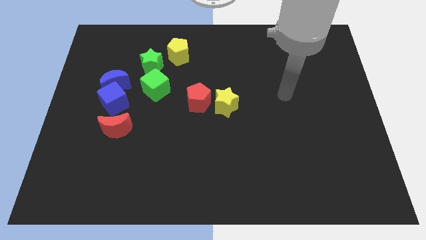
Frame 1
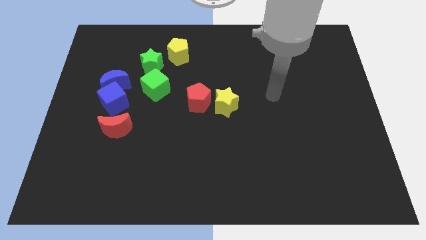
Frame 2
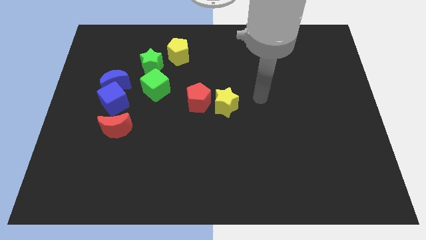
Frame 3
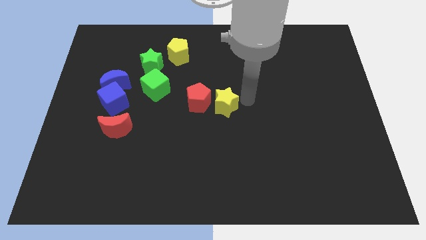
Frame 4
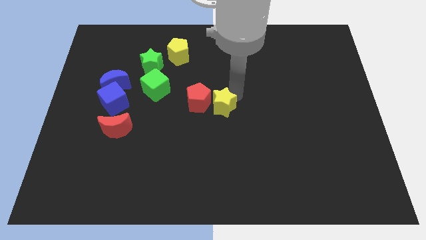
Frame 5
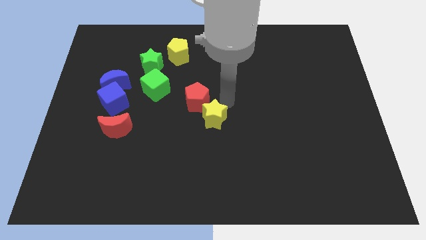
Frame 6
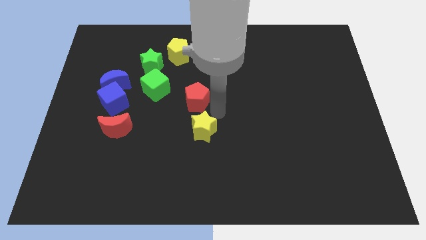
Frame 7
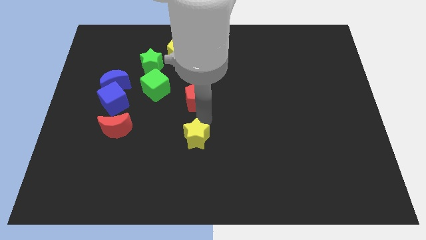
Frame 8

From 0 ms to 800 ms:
separate the red pentagon from the yellow star

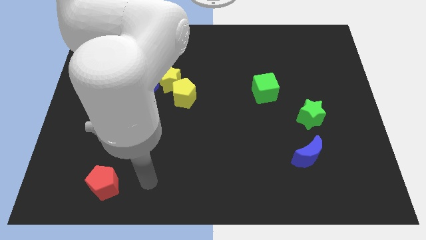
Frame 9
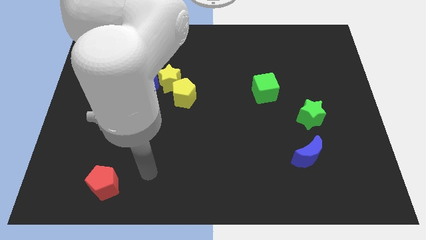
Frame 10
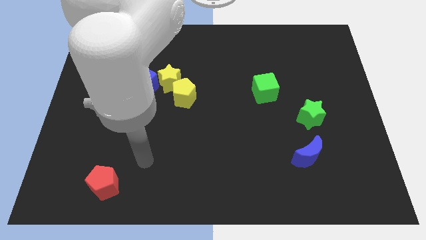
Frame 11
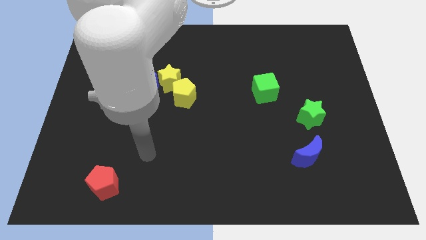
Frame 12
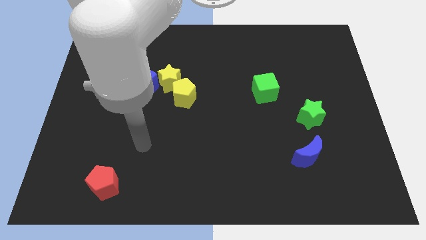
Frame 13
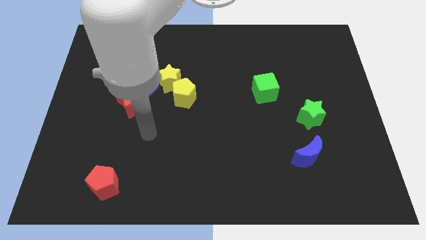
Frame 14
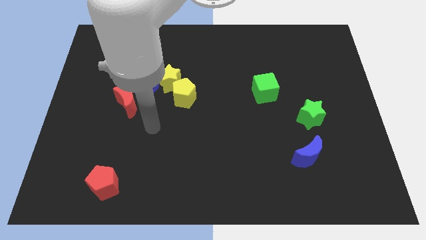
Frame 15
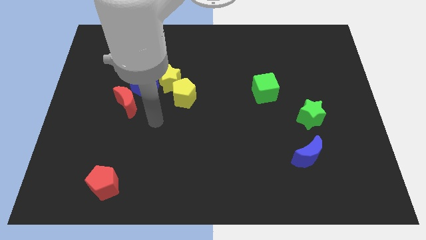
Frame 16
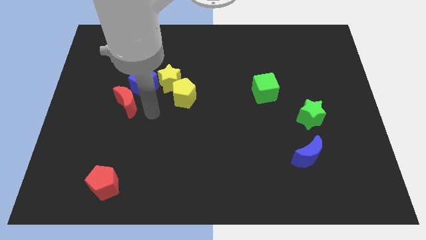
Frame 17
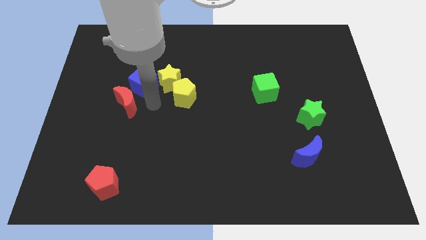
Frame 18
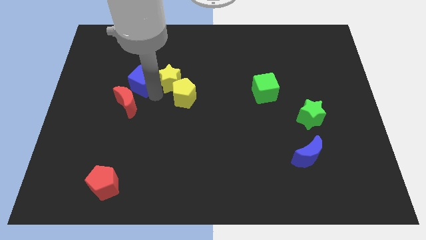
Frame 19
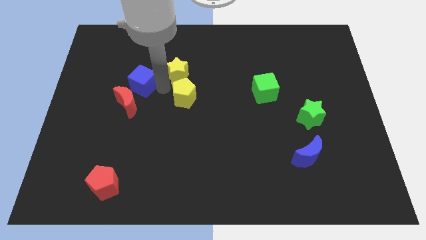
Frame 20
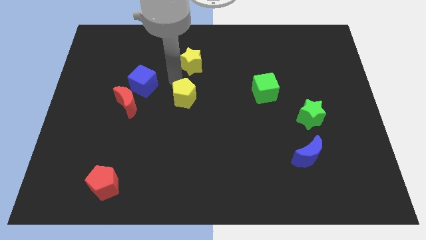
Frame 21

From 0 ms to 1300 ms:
move the yellow pentagon away from the yellow star

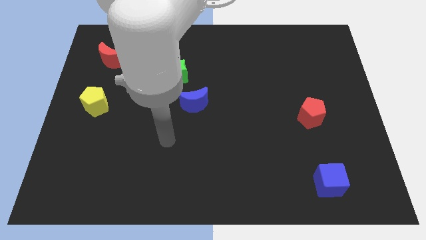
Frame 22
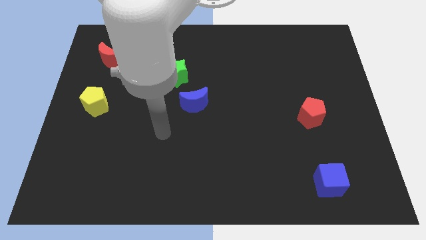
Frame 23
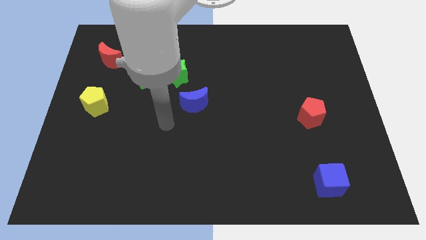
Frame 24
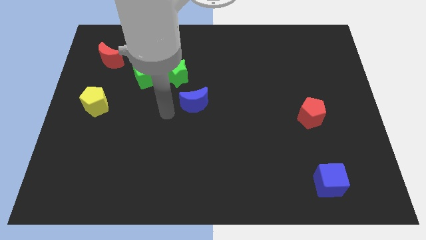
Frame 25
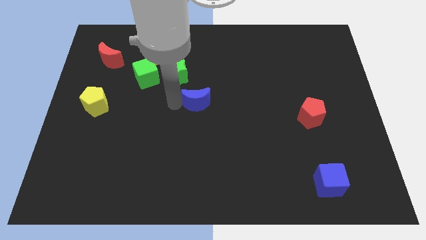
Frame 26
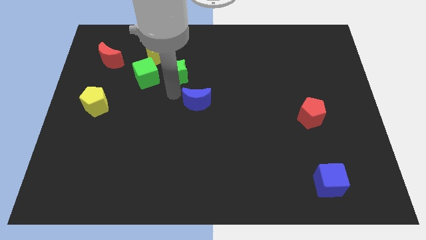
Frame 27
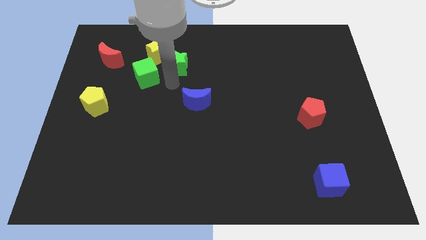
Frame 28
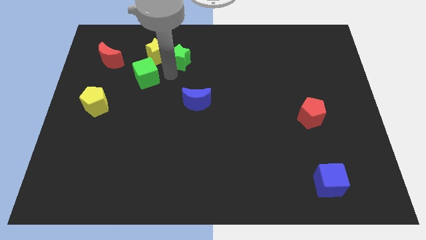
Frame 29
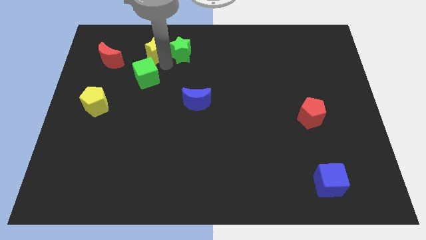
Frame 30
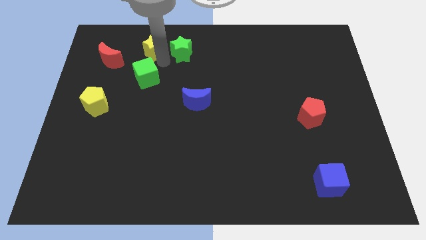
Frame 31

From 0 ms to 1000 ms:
move the green cube away from the green star and yellow star

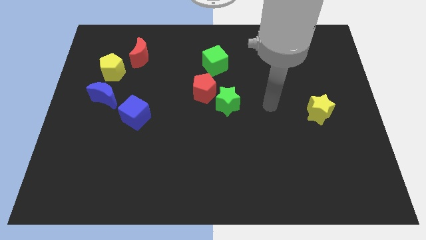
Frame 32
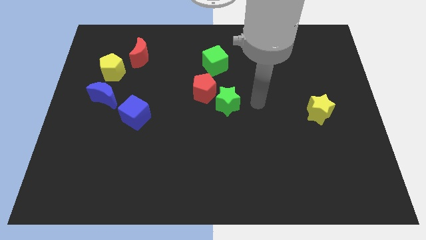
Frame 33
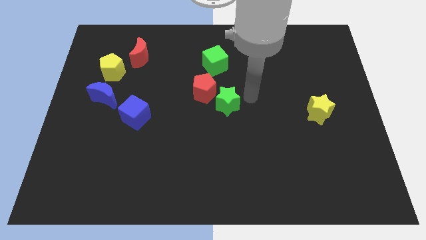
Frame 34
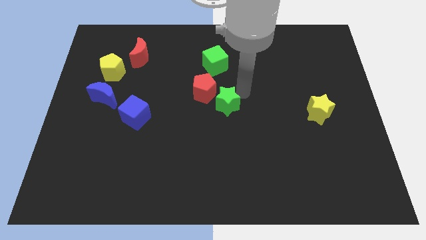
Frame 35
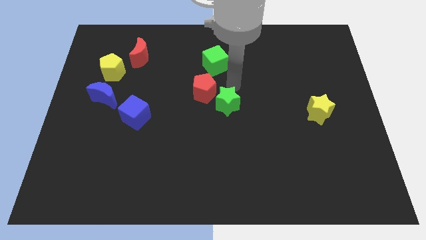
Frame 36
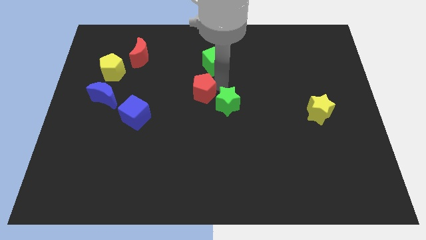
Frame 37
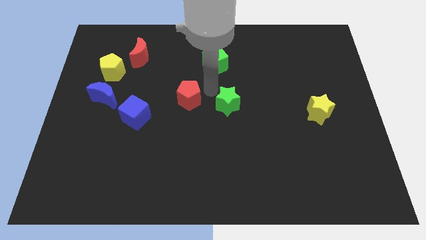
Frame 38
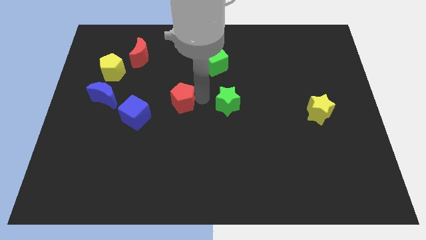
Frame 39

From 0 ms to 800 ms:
separate the green star from the red pentagon

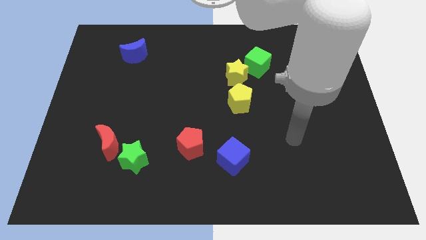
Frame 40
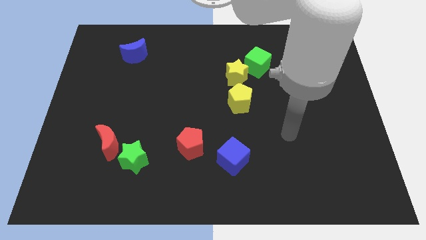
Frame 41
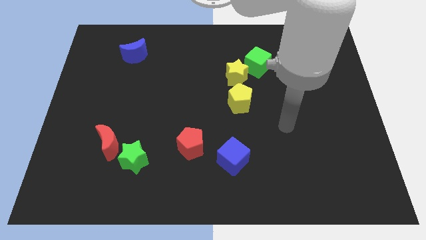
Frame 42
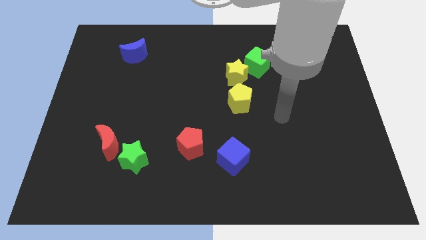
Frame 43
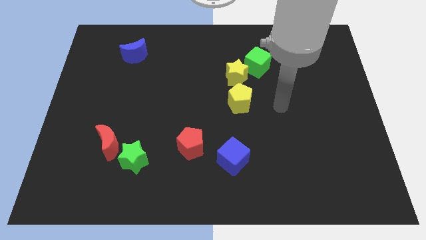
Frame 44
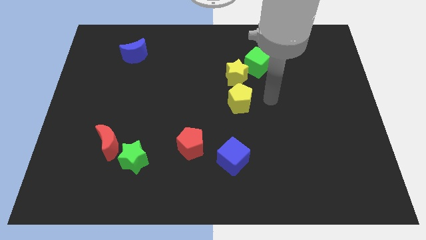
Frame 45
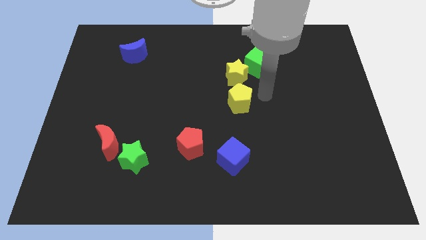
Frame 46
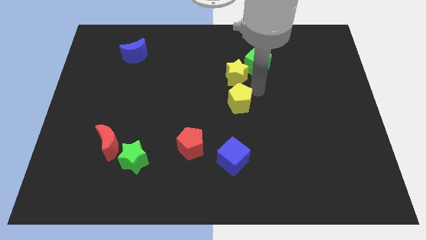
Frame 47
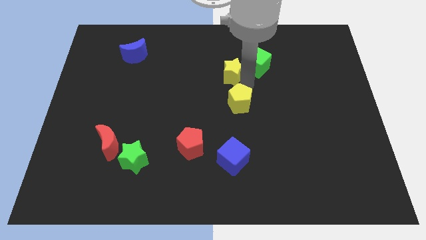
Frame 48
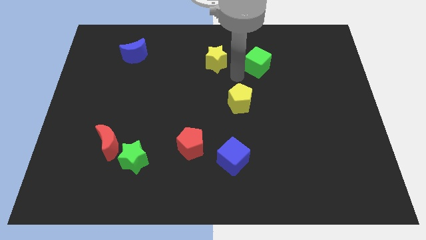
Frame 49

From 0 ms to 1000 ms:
separate the green cube from the yellow star

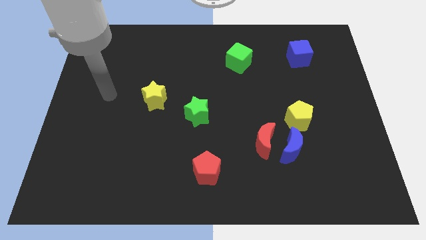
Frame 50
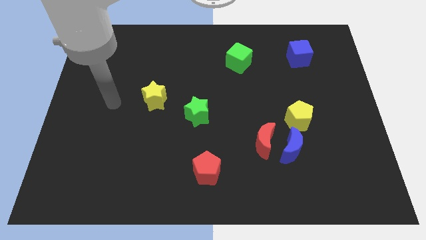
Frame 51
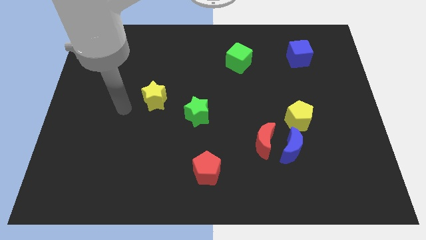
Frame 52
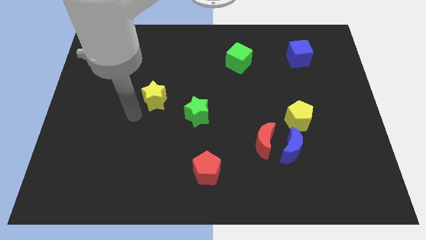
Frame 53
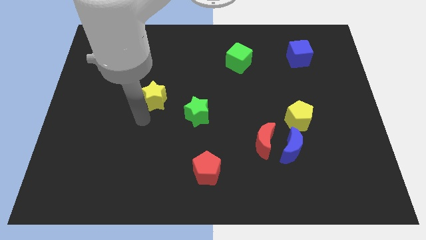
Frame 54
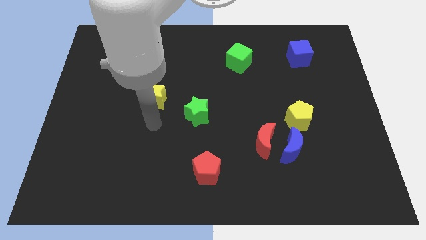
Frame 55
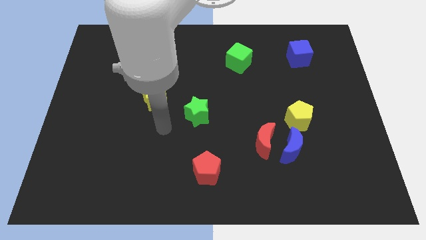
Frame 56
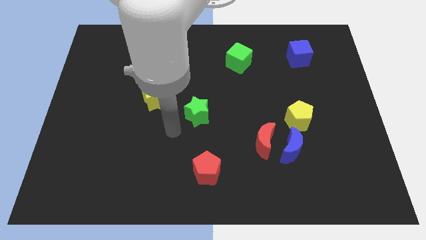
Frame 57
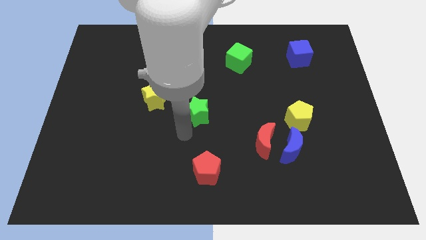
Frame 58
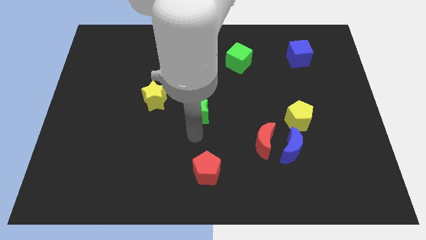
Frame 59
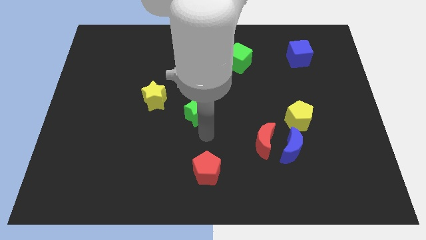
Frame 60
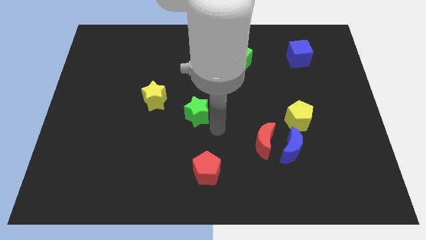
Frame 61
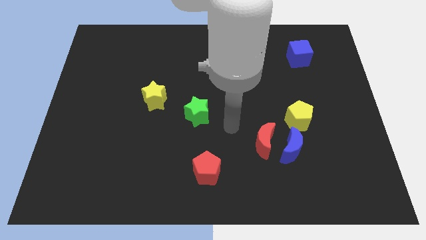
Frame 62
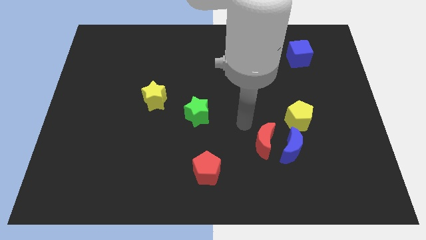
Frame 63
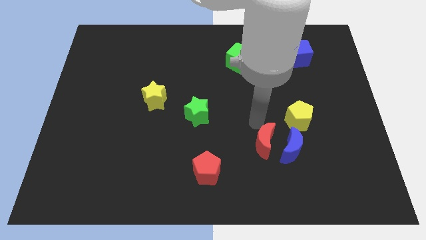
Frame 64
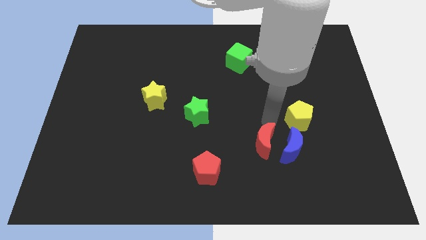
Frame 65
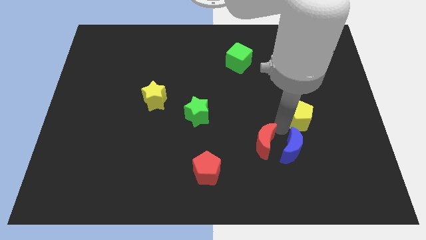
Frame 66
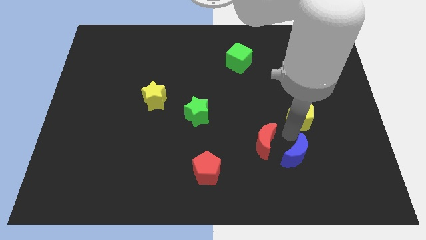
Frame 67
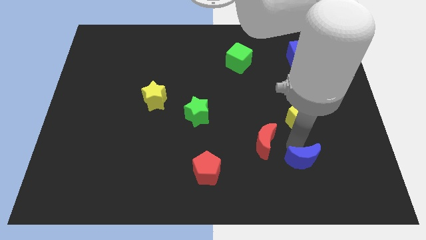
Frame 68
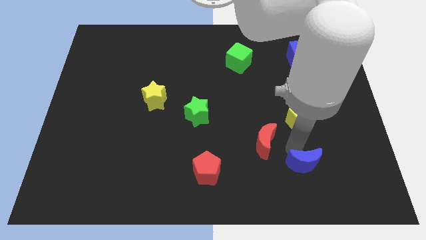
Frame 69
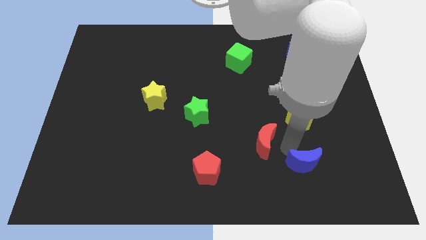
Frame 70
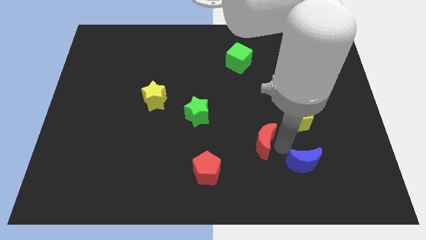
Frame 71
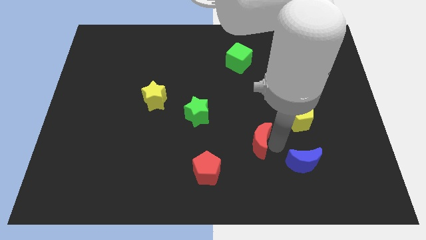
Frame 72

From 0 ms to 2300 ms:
pull the red moon apart from the blue moon

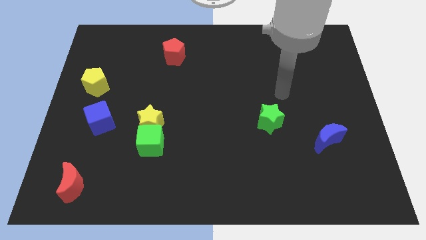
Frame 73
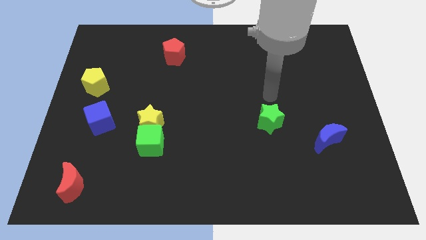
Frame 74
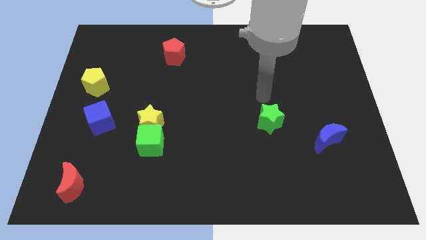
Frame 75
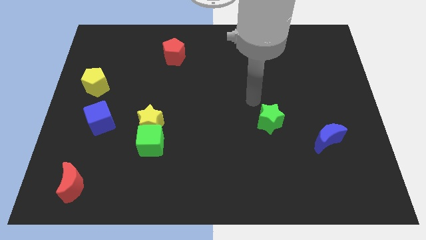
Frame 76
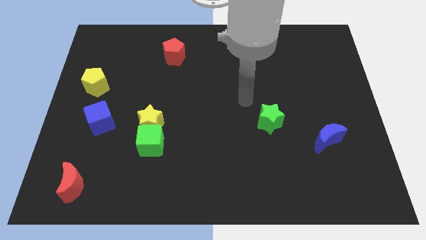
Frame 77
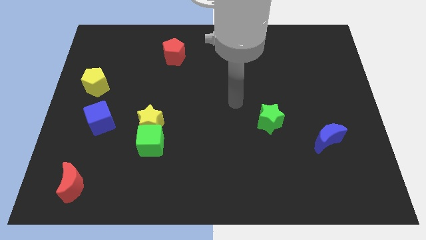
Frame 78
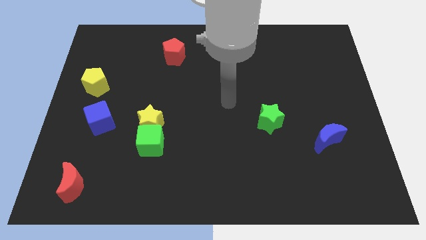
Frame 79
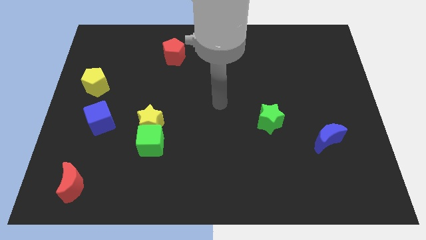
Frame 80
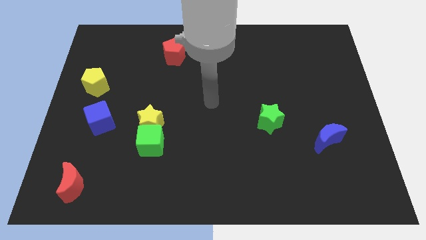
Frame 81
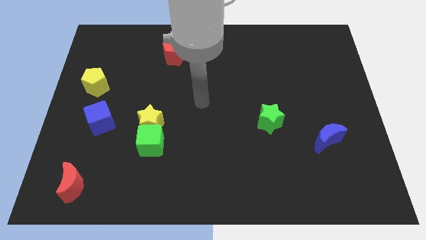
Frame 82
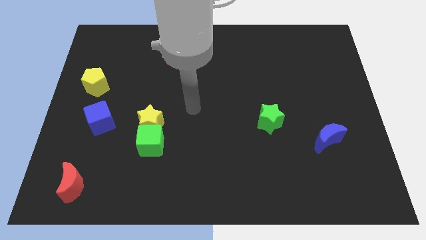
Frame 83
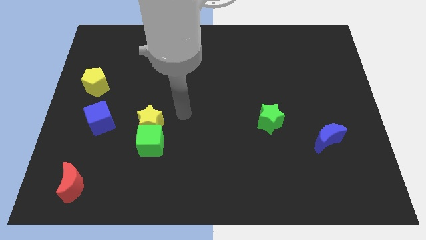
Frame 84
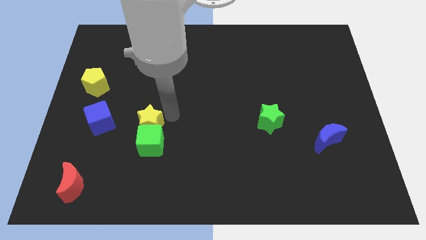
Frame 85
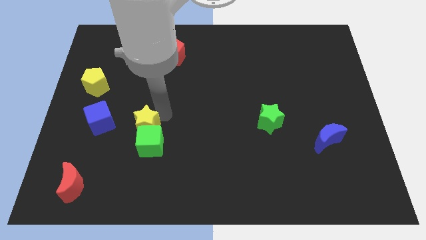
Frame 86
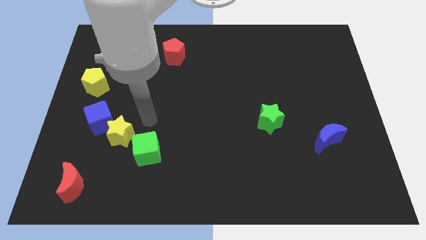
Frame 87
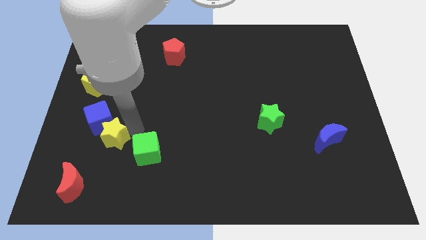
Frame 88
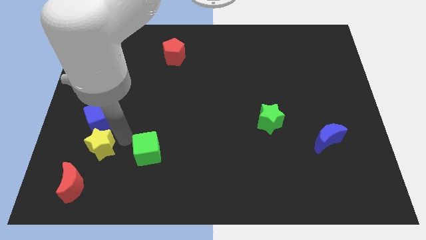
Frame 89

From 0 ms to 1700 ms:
pull the green cube apart from the yellow star

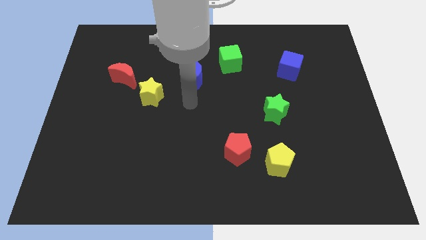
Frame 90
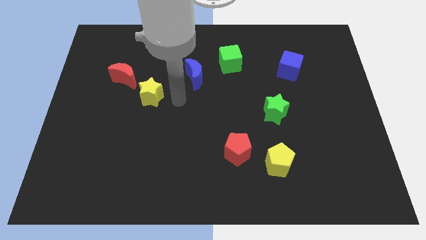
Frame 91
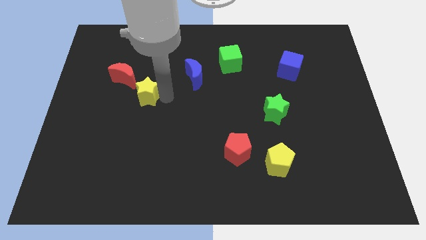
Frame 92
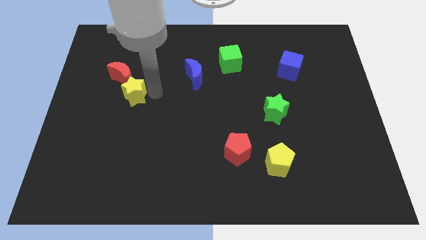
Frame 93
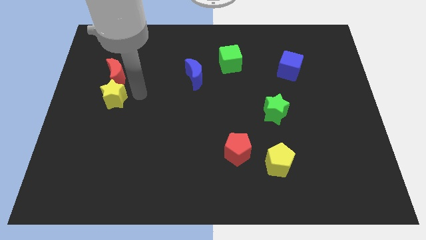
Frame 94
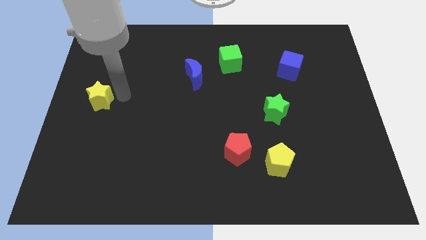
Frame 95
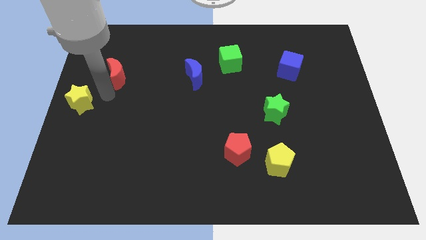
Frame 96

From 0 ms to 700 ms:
move the red moon away from the yellow star
